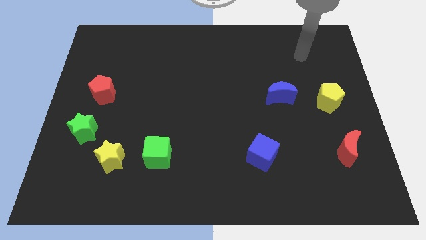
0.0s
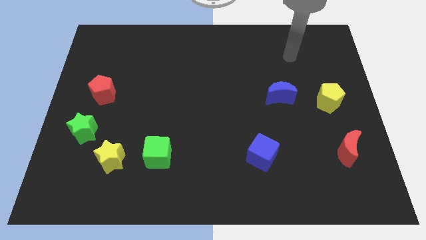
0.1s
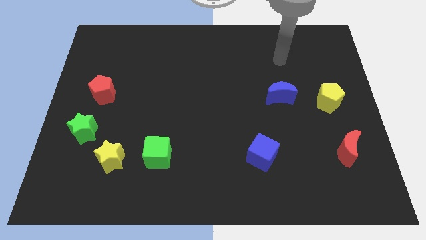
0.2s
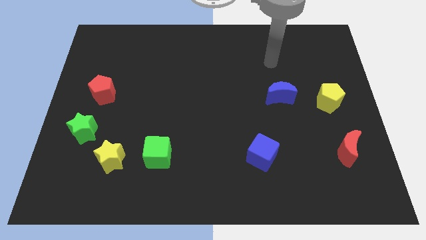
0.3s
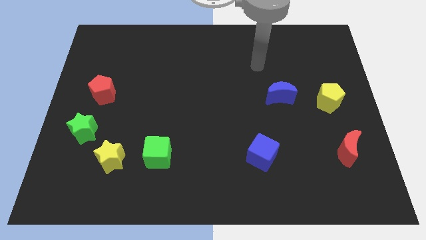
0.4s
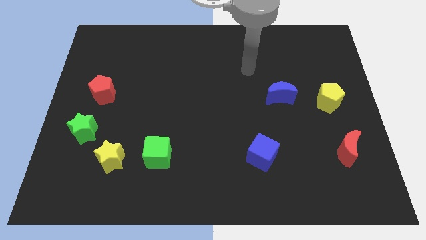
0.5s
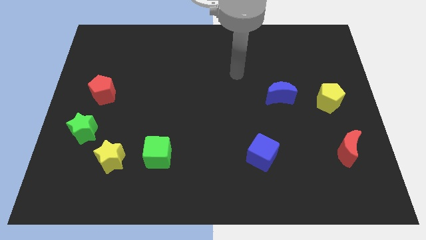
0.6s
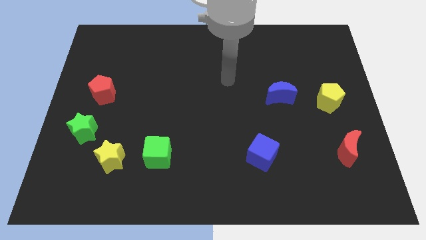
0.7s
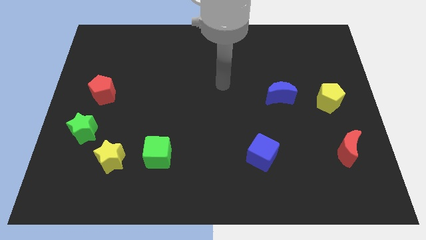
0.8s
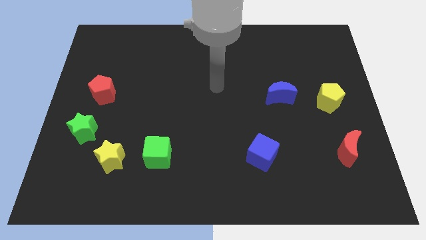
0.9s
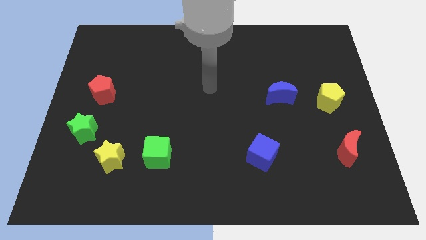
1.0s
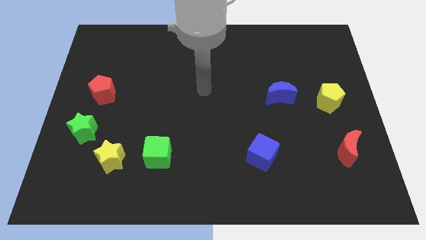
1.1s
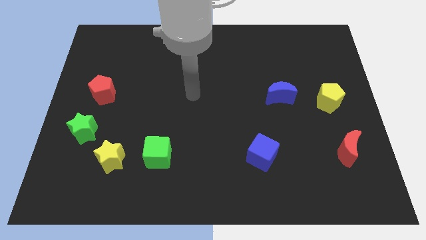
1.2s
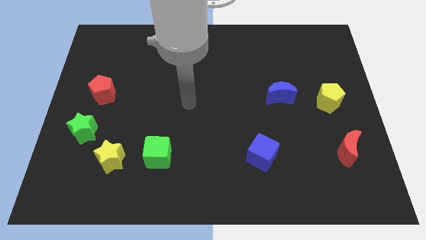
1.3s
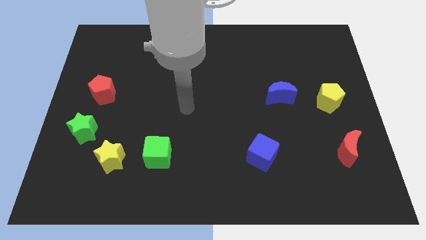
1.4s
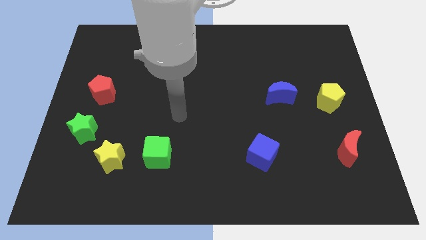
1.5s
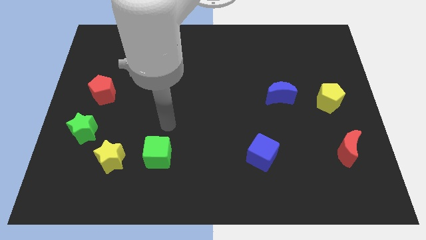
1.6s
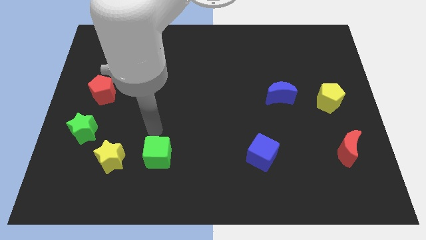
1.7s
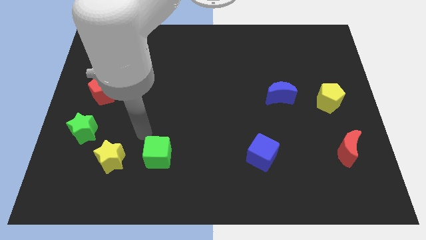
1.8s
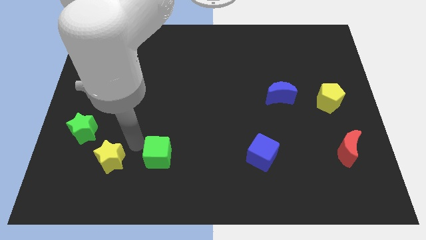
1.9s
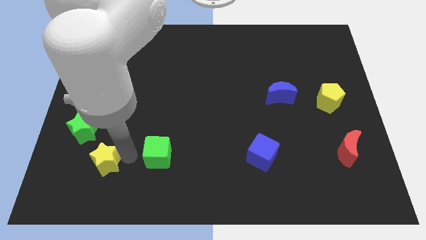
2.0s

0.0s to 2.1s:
pull the green cube apart from the yellow star

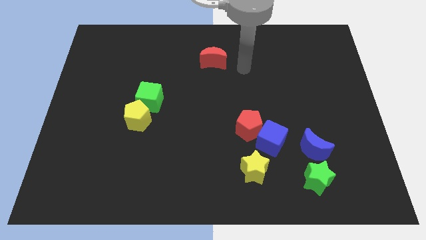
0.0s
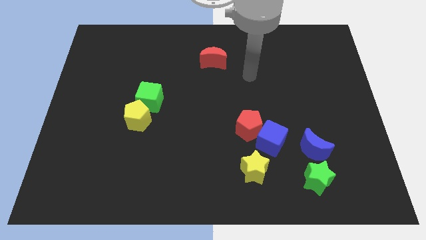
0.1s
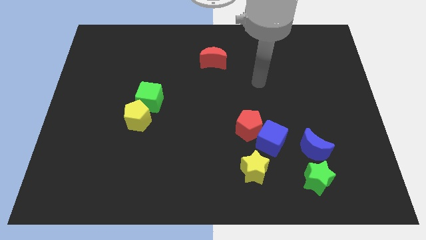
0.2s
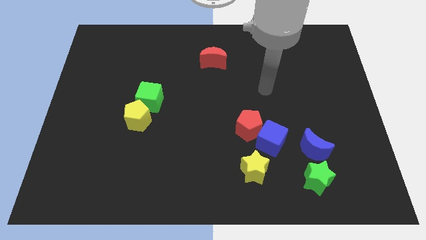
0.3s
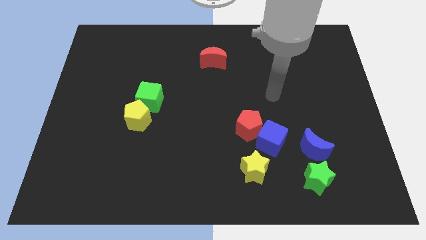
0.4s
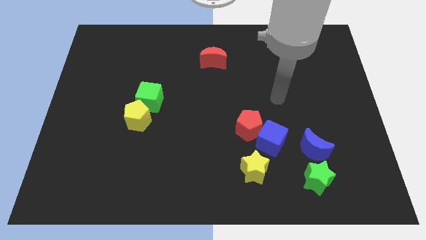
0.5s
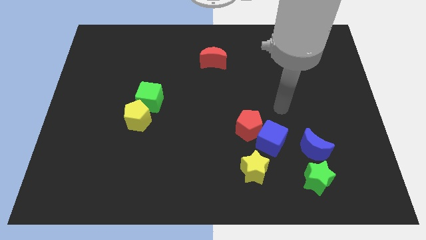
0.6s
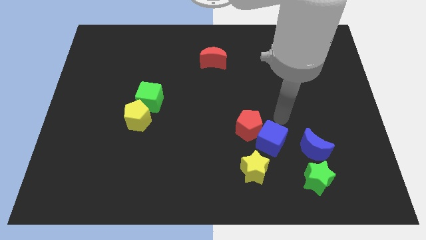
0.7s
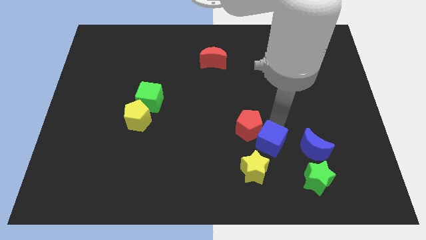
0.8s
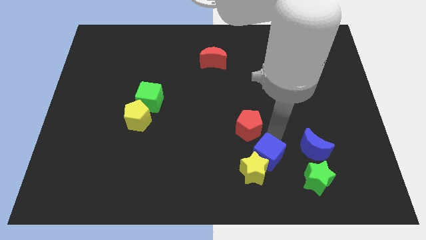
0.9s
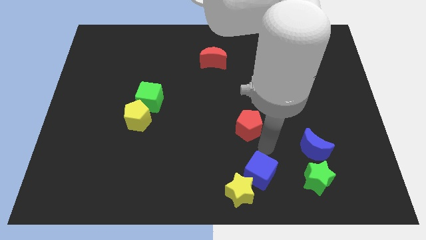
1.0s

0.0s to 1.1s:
move the red pentagon away from the blue cube

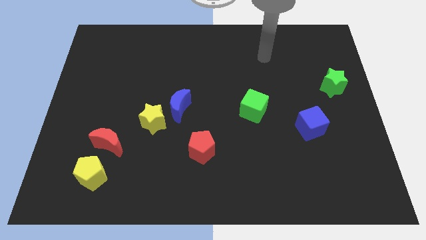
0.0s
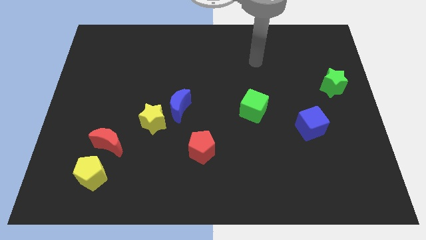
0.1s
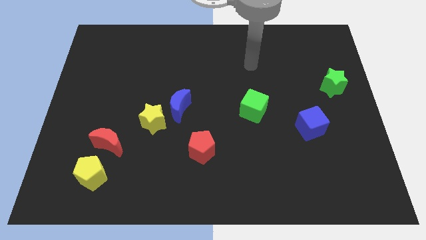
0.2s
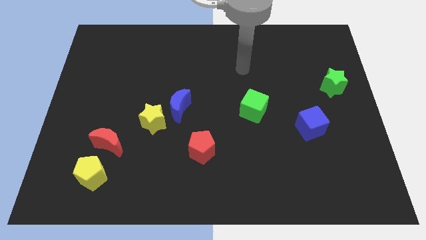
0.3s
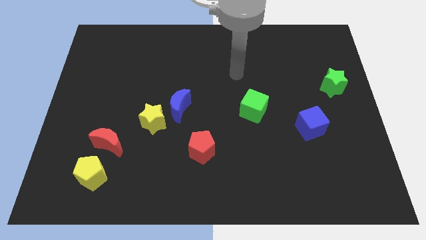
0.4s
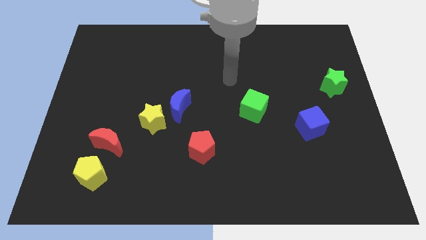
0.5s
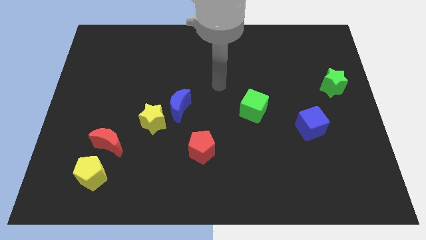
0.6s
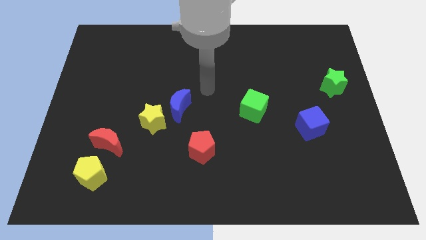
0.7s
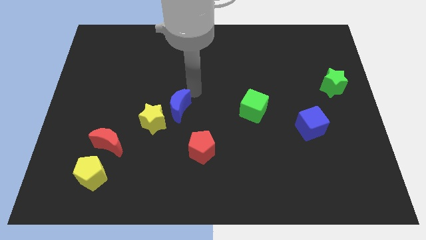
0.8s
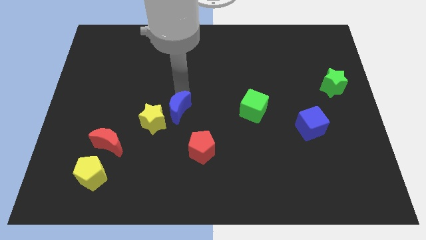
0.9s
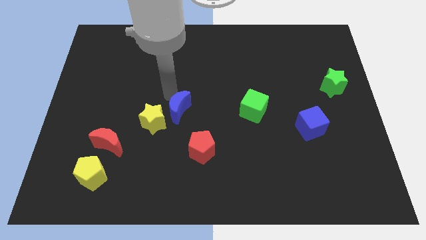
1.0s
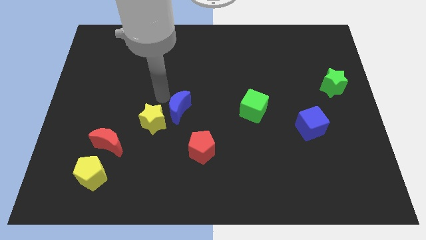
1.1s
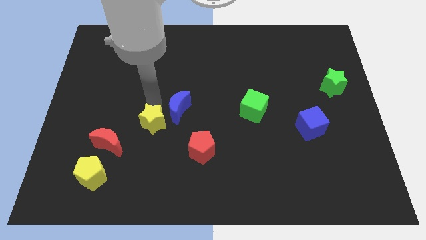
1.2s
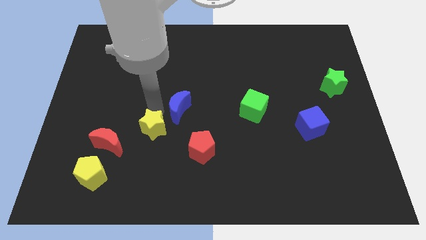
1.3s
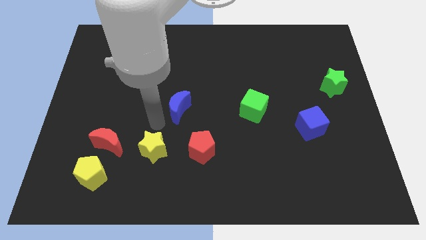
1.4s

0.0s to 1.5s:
move the blue moon away from the yellow star

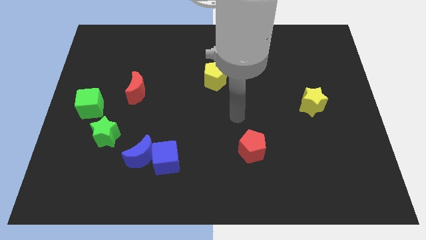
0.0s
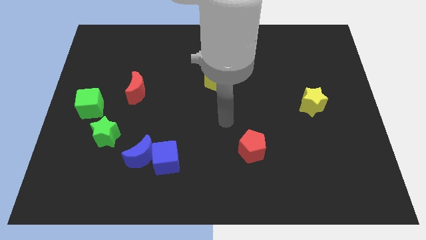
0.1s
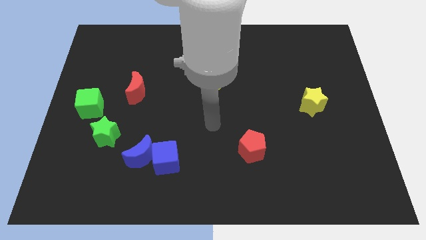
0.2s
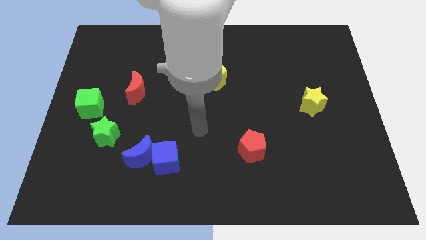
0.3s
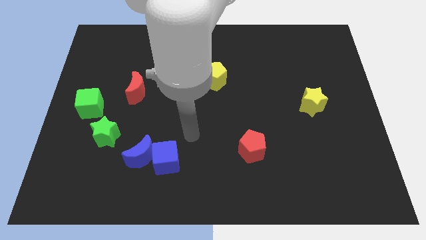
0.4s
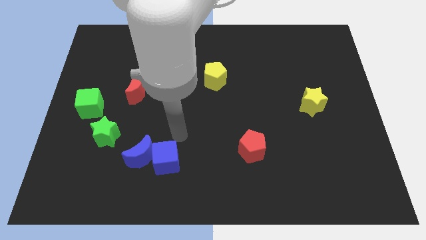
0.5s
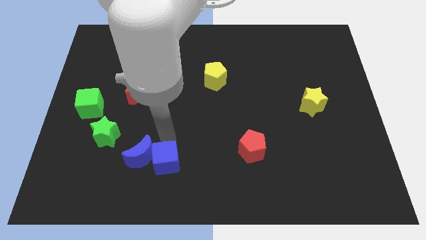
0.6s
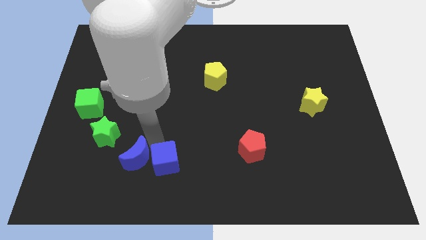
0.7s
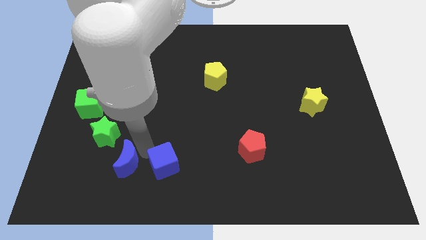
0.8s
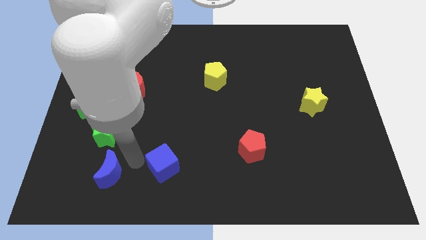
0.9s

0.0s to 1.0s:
separate the blue cube from the blue moon

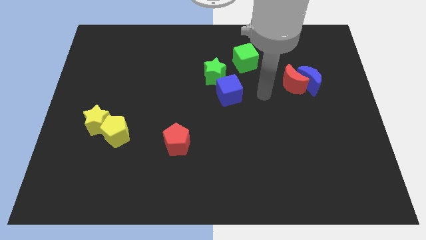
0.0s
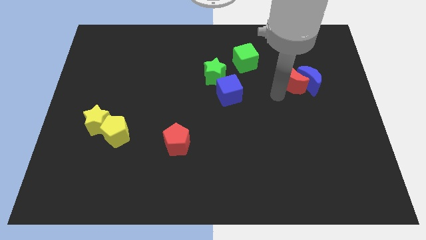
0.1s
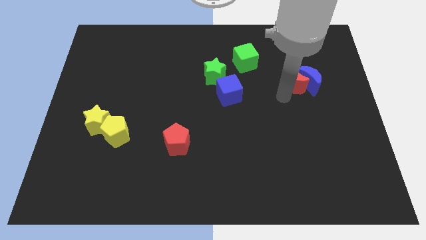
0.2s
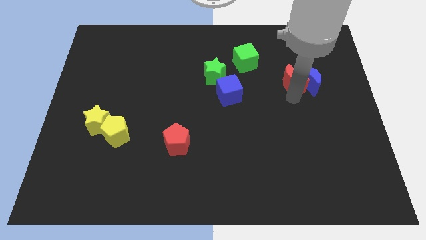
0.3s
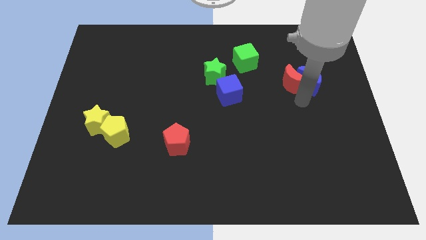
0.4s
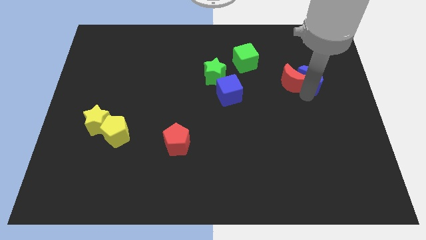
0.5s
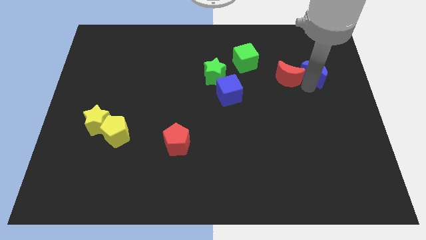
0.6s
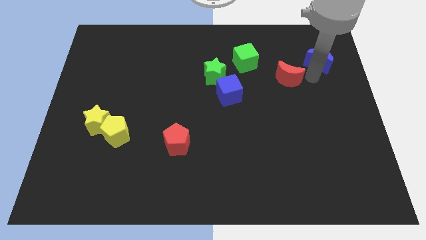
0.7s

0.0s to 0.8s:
pull the red moon apart from the blue moon

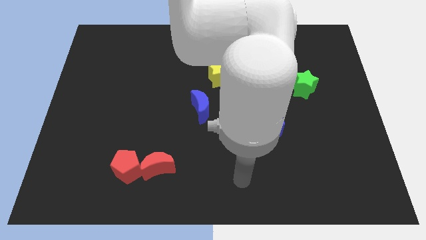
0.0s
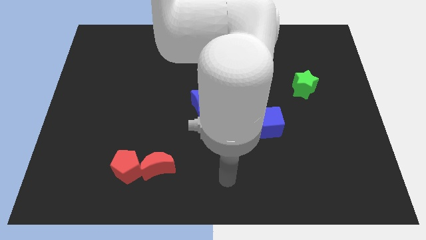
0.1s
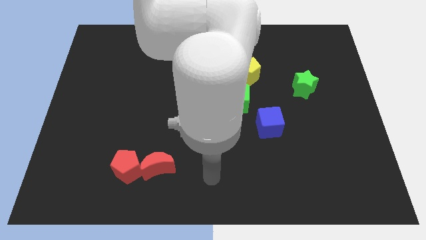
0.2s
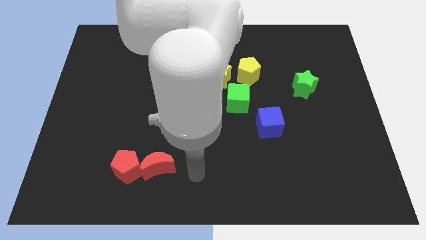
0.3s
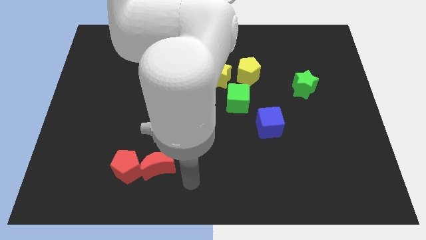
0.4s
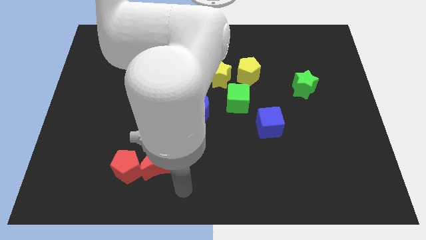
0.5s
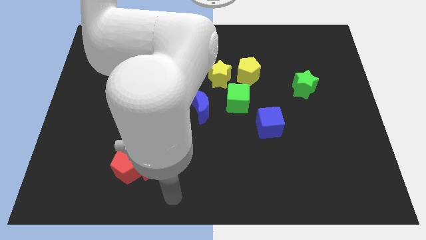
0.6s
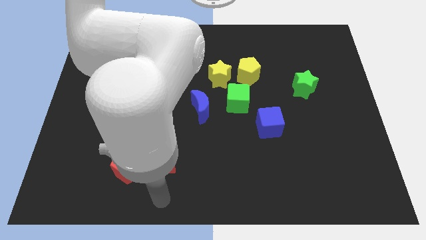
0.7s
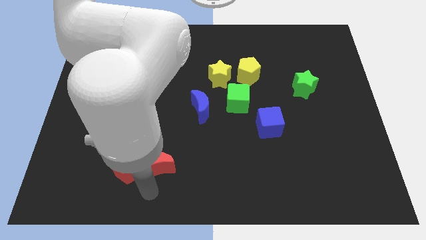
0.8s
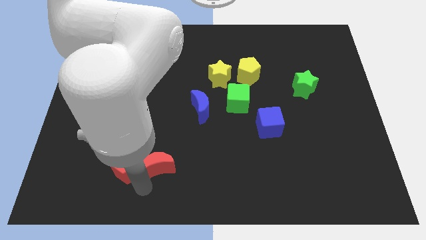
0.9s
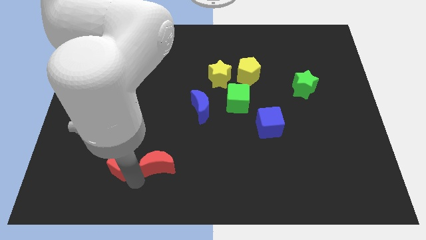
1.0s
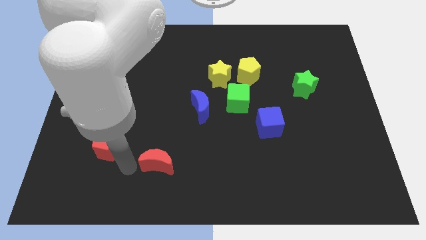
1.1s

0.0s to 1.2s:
separate the red moon from the red pentagon

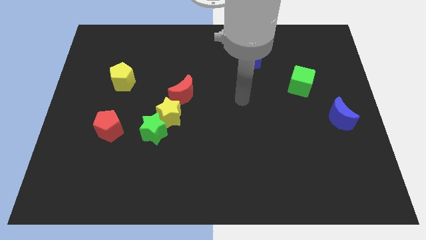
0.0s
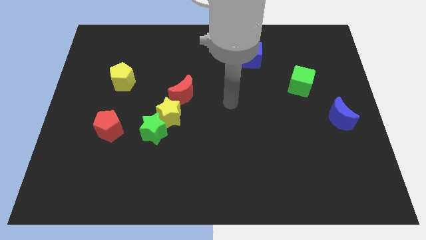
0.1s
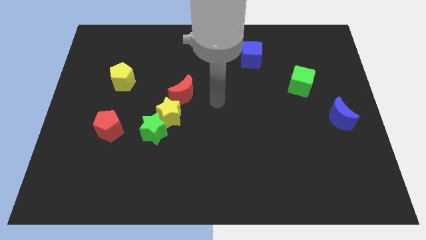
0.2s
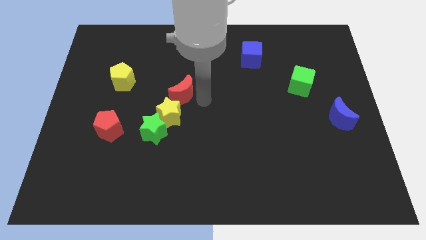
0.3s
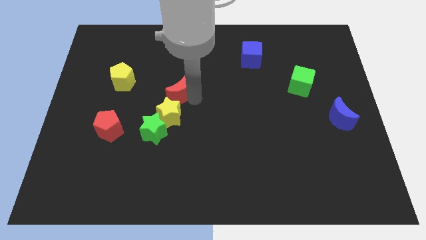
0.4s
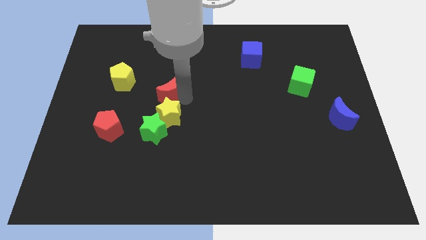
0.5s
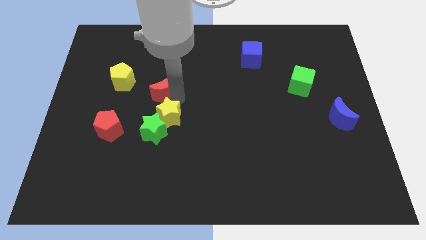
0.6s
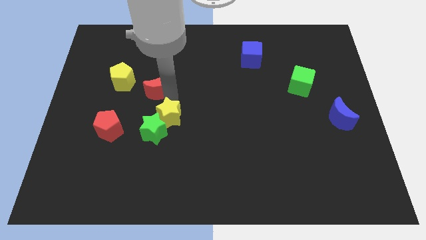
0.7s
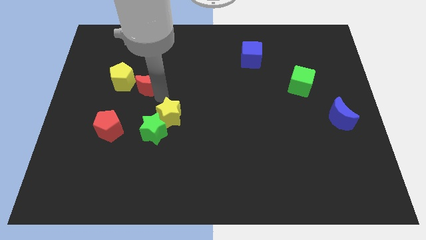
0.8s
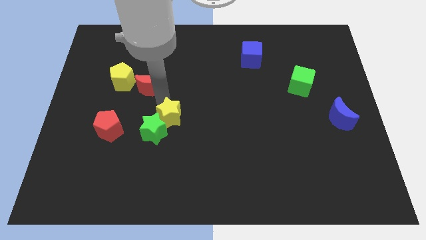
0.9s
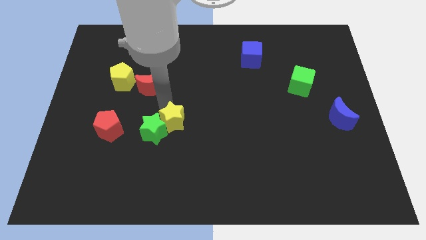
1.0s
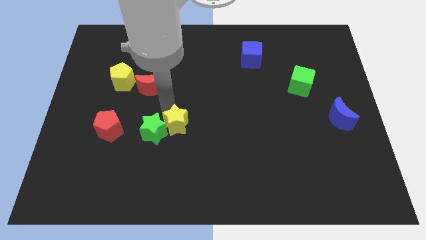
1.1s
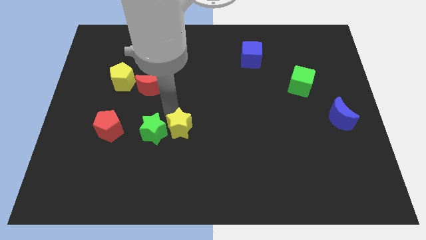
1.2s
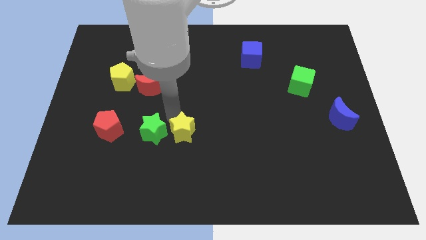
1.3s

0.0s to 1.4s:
separate the yellow star from the green star and red moon
